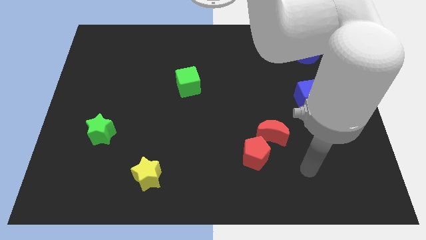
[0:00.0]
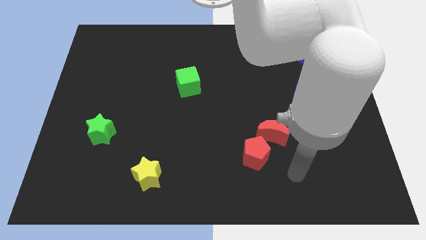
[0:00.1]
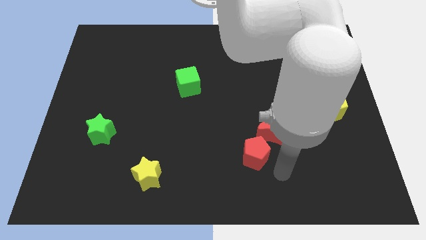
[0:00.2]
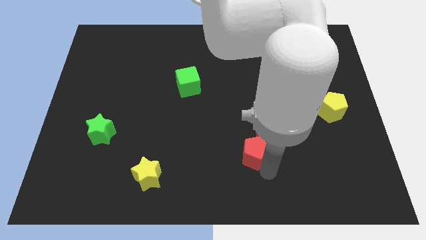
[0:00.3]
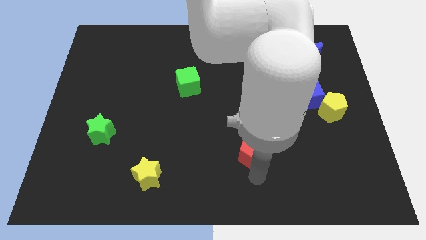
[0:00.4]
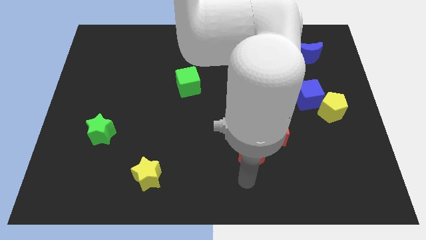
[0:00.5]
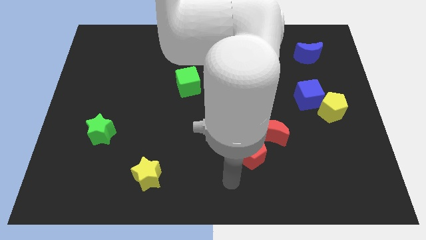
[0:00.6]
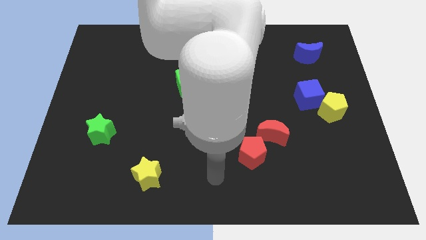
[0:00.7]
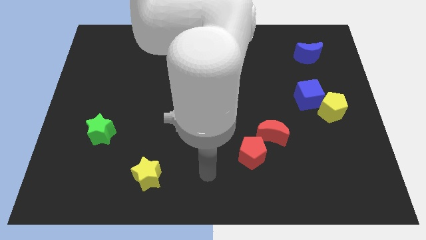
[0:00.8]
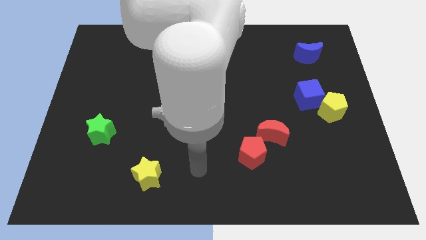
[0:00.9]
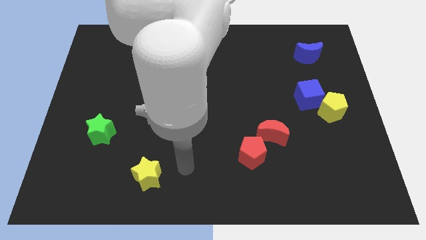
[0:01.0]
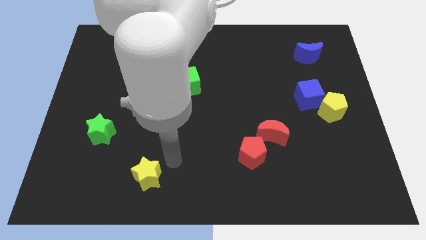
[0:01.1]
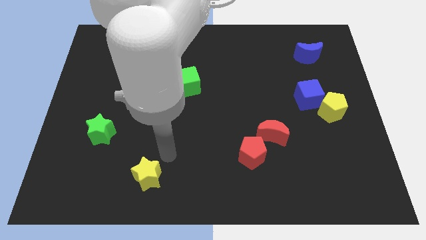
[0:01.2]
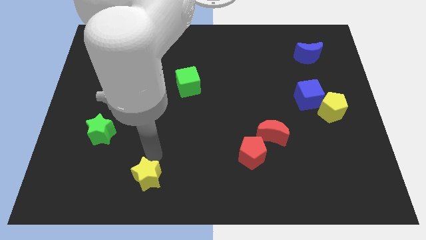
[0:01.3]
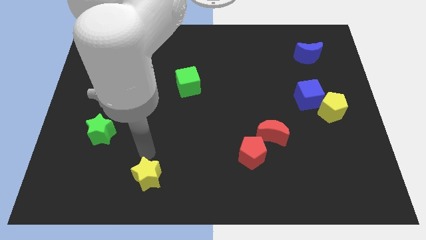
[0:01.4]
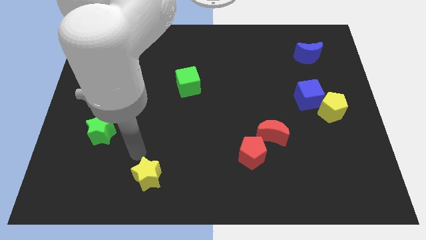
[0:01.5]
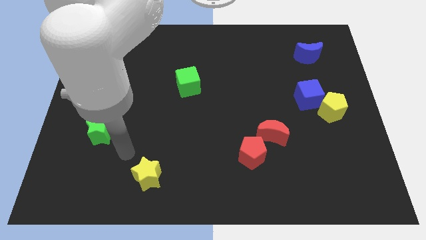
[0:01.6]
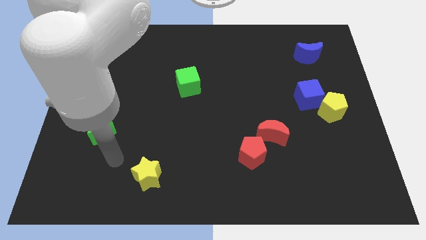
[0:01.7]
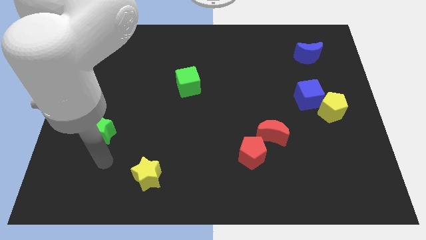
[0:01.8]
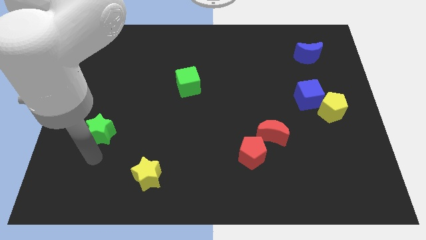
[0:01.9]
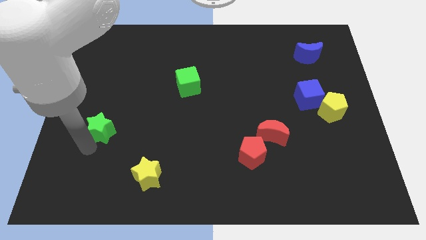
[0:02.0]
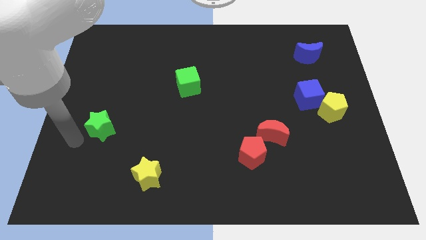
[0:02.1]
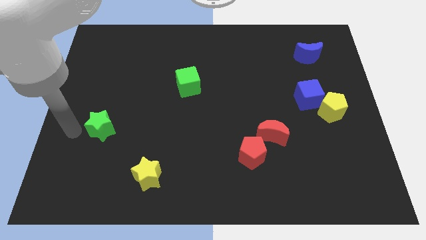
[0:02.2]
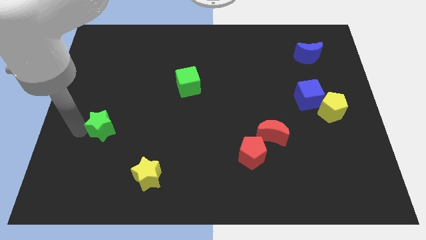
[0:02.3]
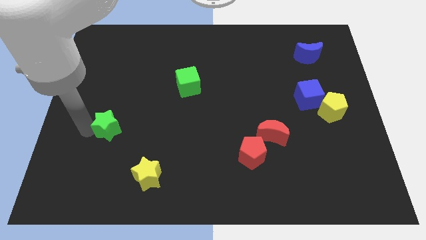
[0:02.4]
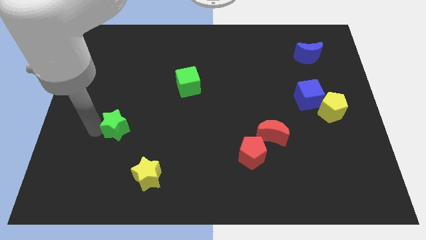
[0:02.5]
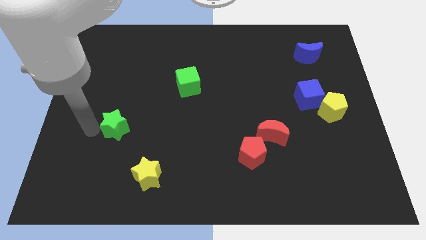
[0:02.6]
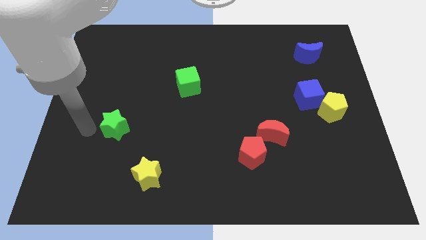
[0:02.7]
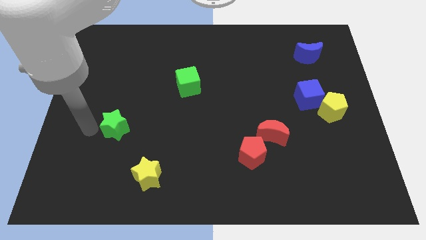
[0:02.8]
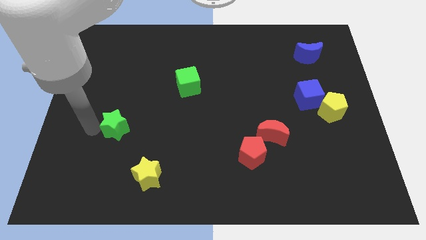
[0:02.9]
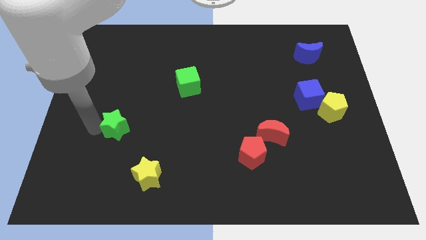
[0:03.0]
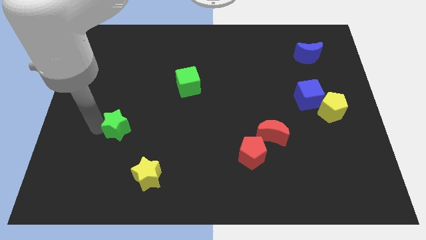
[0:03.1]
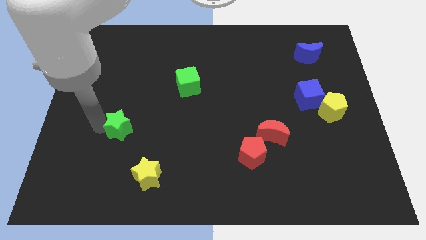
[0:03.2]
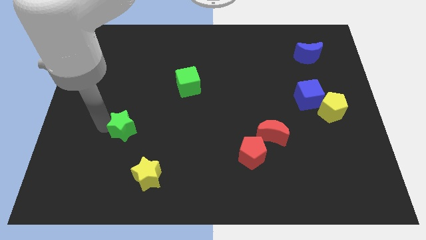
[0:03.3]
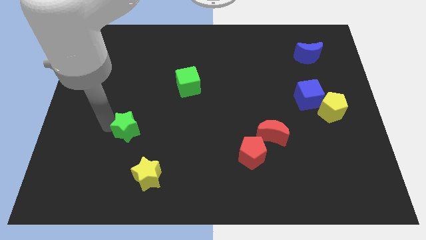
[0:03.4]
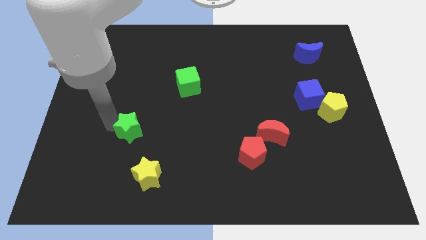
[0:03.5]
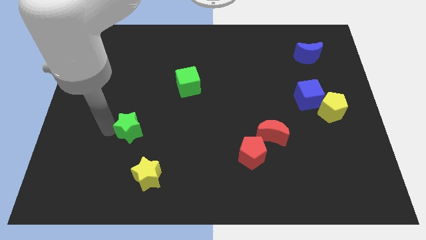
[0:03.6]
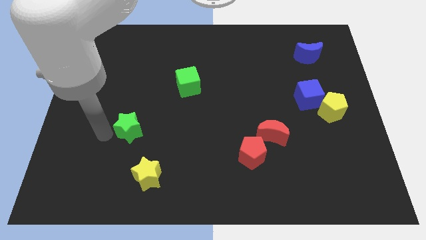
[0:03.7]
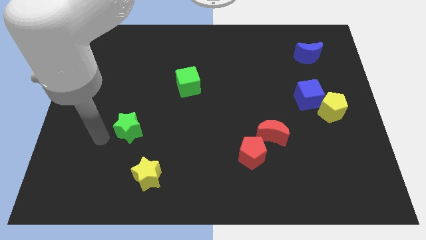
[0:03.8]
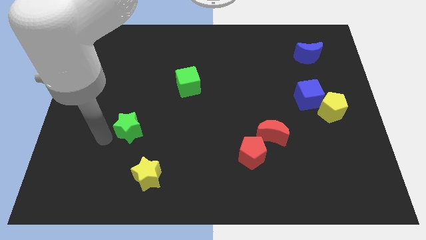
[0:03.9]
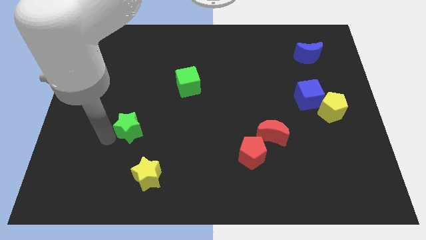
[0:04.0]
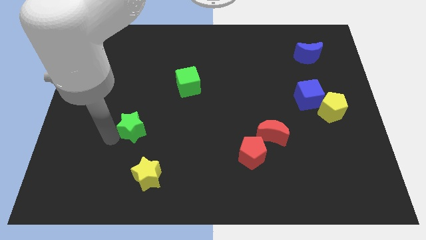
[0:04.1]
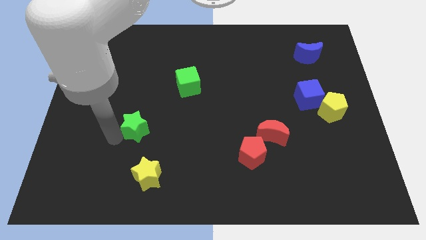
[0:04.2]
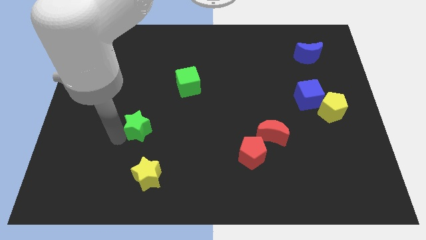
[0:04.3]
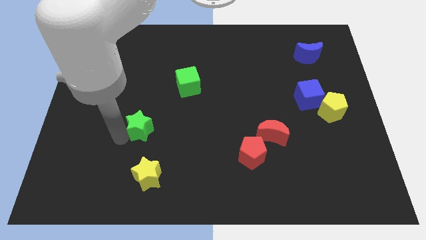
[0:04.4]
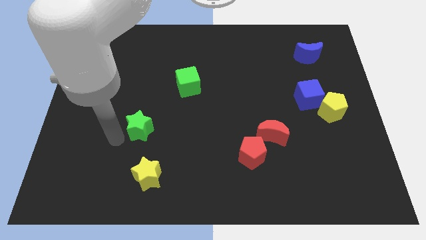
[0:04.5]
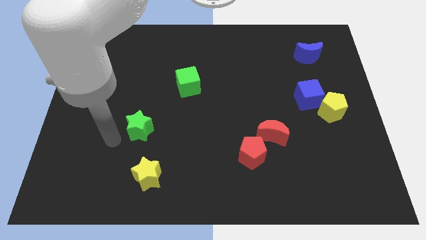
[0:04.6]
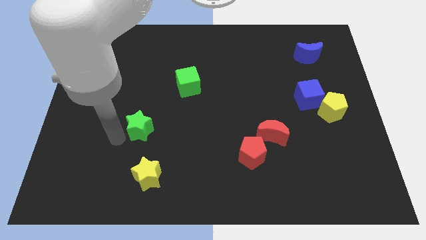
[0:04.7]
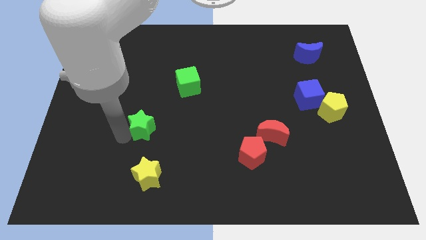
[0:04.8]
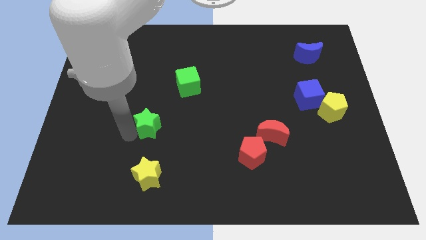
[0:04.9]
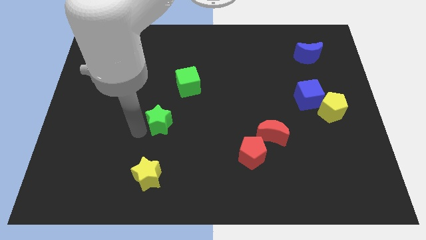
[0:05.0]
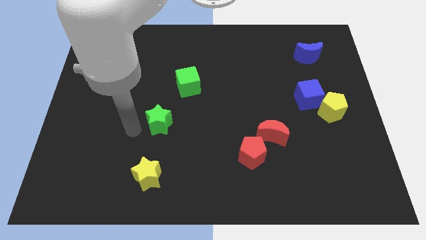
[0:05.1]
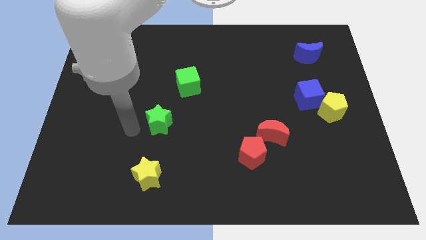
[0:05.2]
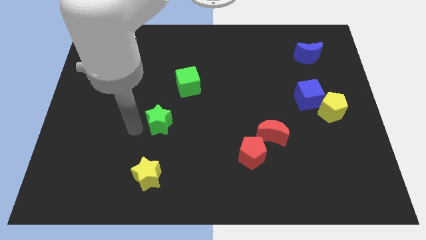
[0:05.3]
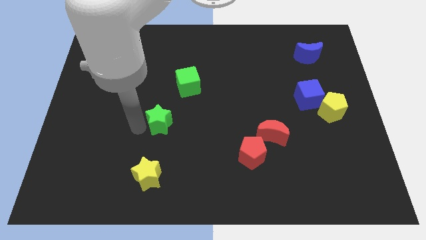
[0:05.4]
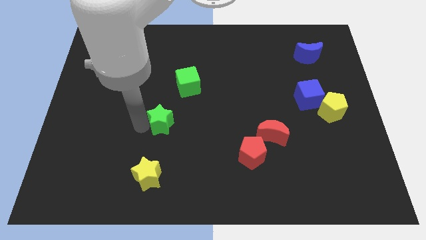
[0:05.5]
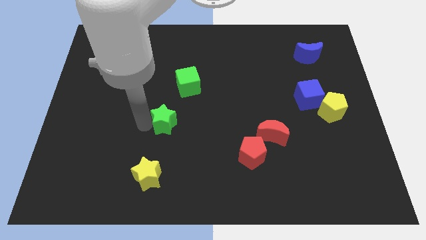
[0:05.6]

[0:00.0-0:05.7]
put the green star to the bottom of the green cube

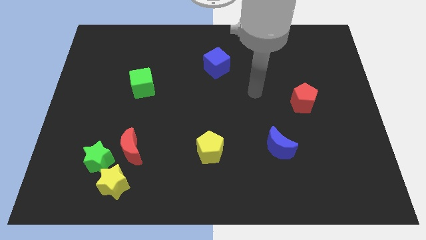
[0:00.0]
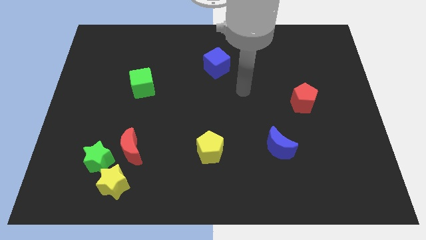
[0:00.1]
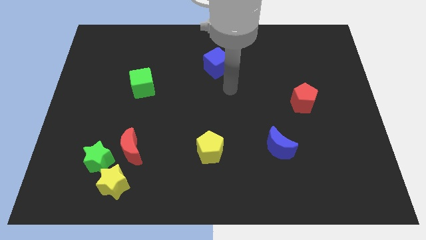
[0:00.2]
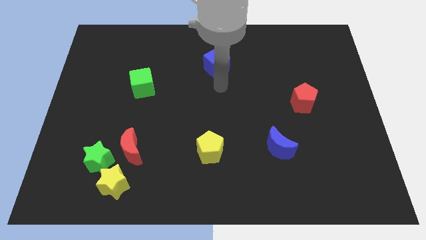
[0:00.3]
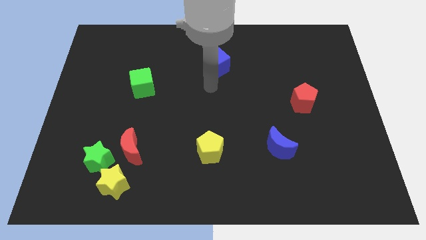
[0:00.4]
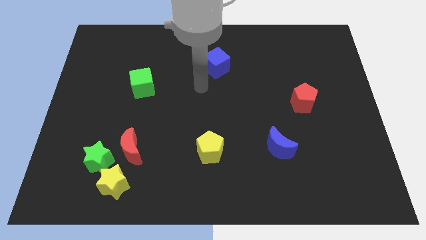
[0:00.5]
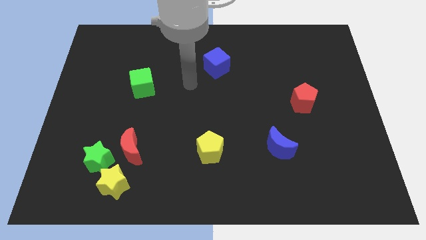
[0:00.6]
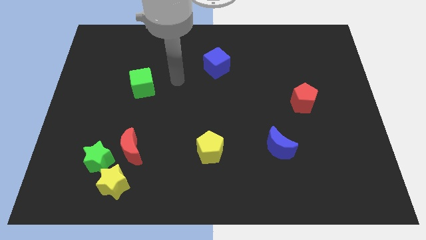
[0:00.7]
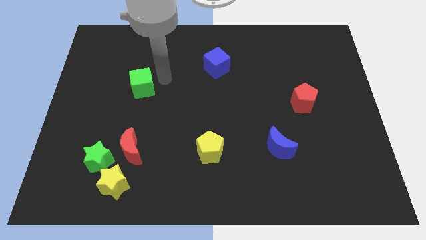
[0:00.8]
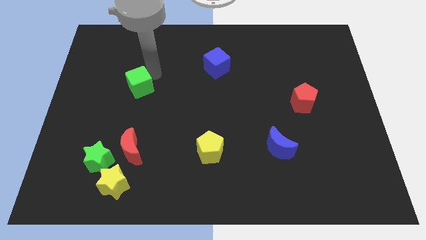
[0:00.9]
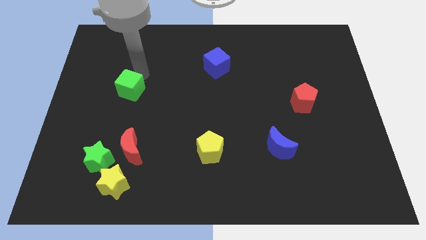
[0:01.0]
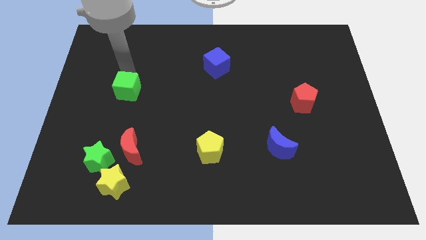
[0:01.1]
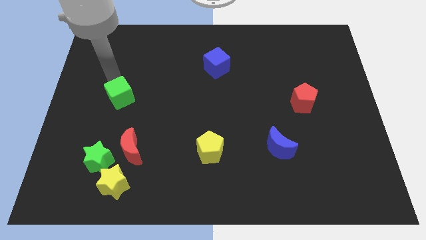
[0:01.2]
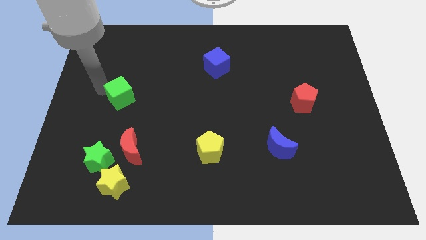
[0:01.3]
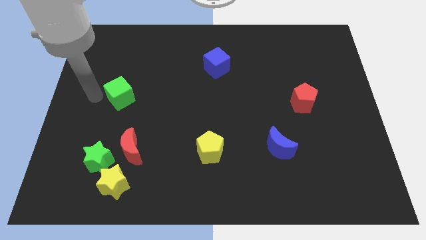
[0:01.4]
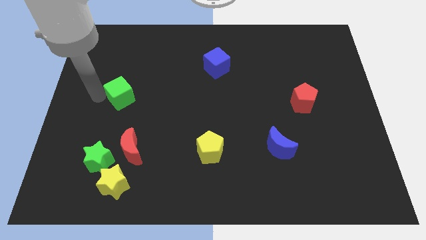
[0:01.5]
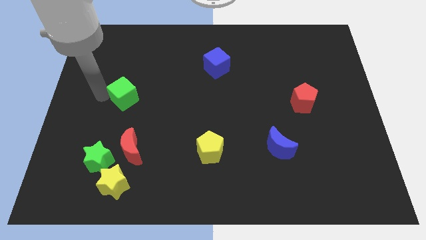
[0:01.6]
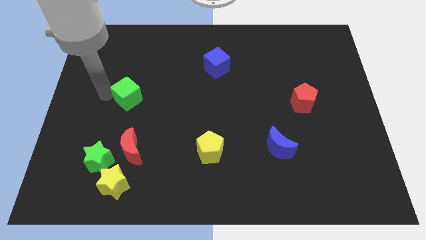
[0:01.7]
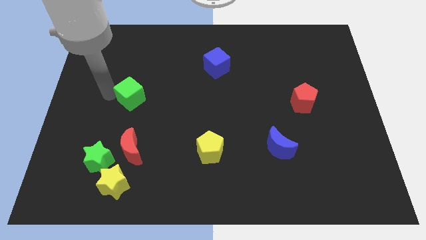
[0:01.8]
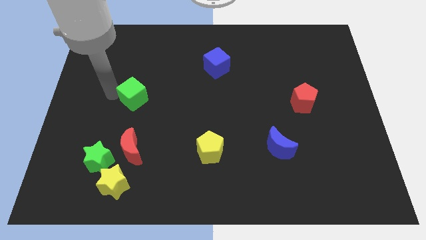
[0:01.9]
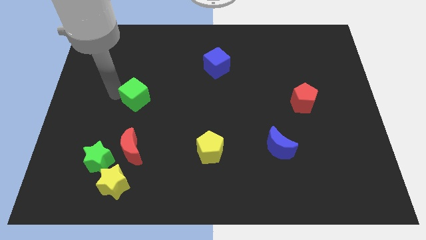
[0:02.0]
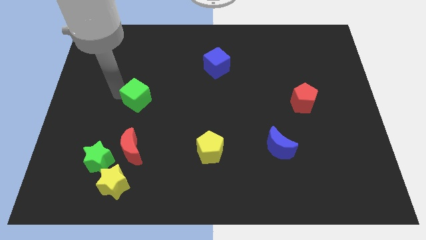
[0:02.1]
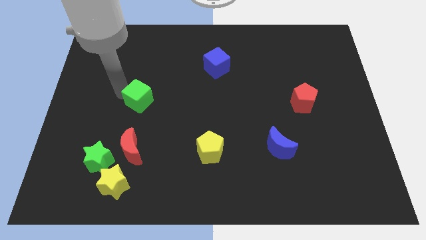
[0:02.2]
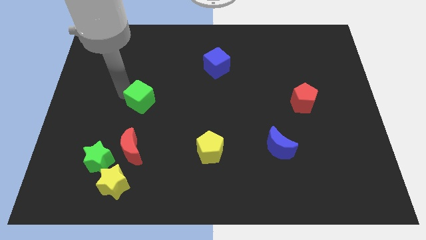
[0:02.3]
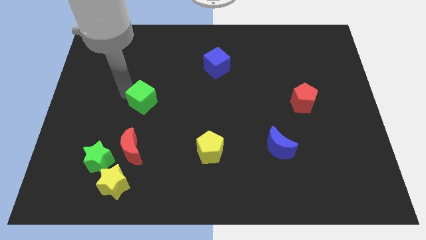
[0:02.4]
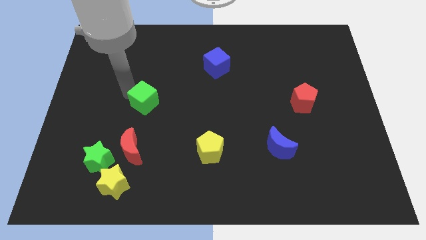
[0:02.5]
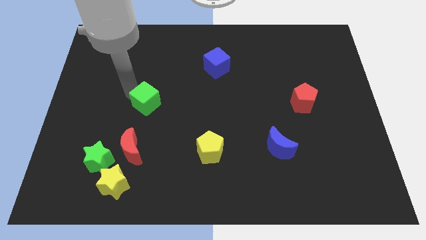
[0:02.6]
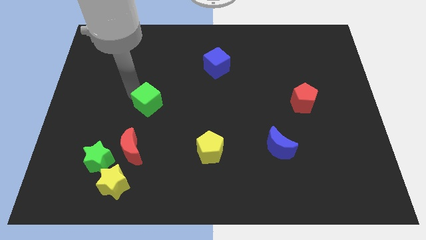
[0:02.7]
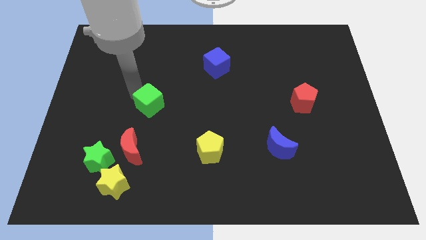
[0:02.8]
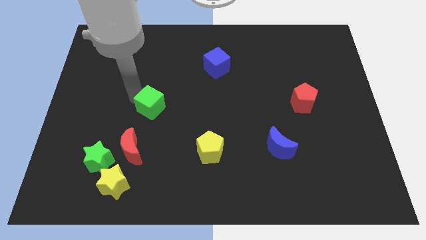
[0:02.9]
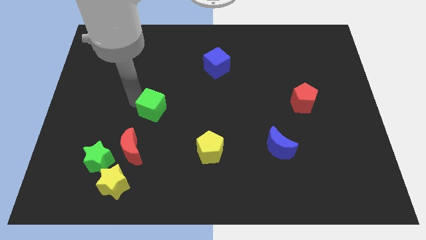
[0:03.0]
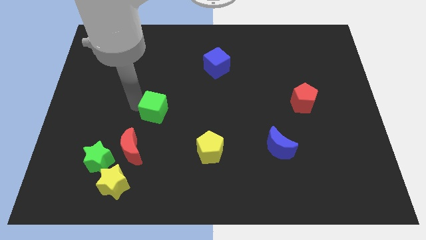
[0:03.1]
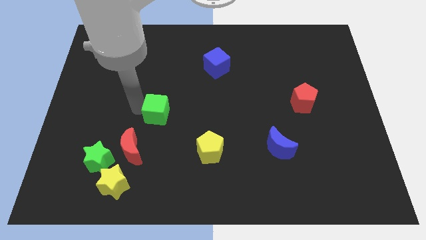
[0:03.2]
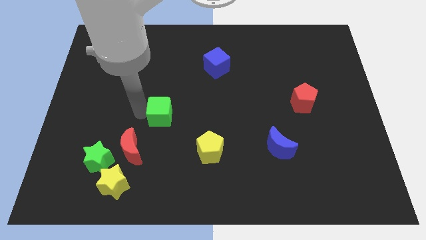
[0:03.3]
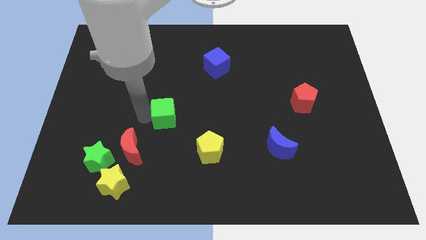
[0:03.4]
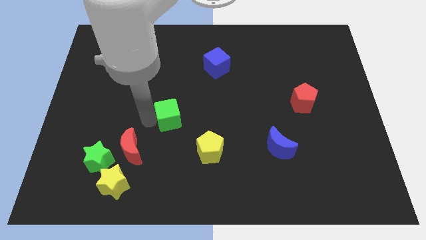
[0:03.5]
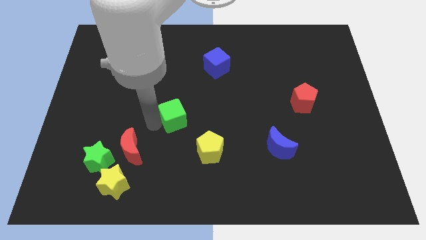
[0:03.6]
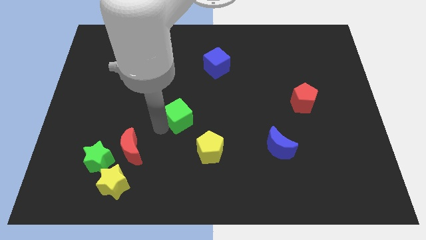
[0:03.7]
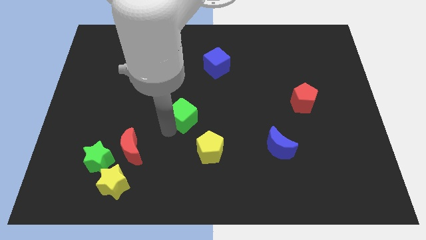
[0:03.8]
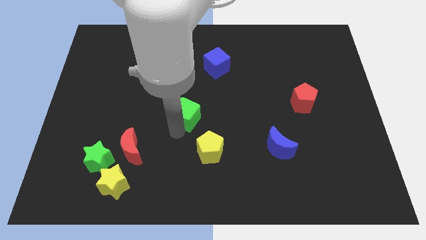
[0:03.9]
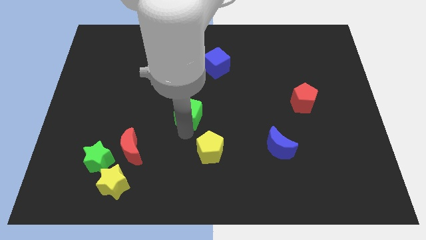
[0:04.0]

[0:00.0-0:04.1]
slide the green cube to the top side of the yellow pentagon
